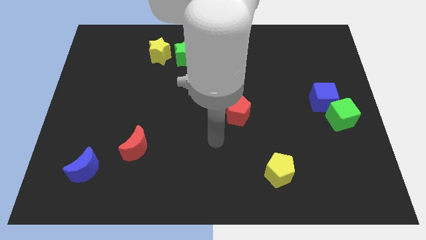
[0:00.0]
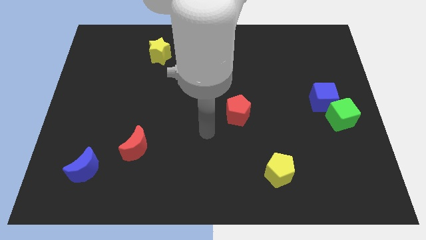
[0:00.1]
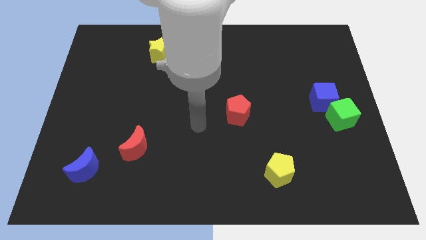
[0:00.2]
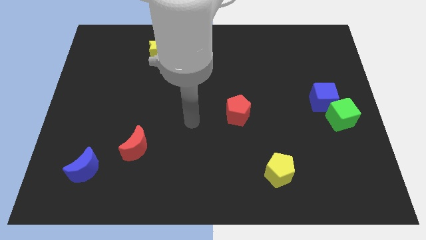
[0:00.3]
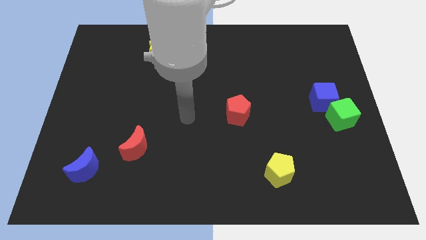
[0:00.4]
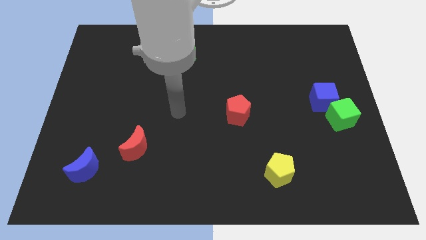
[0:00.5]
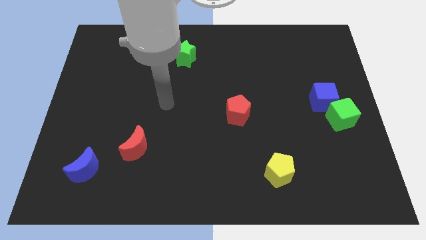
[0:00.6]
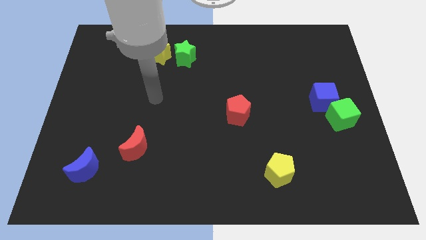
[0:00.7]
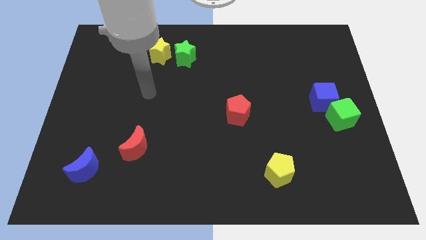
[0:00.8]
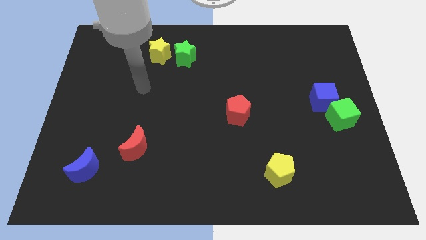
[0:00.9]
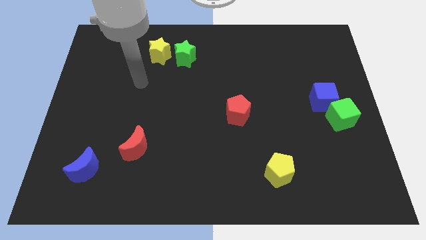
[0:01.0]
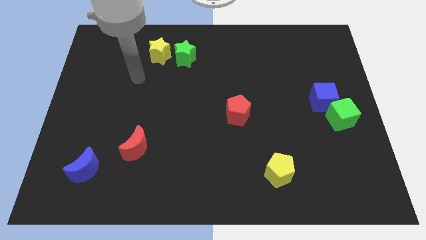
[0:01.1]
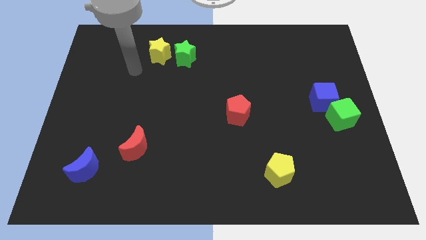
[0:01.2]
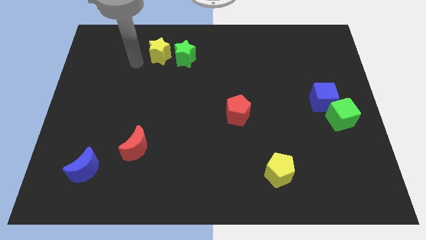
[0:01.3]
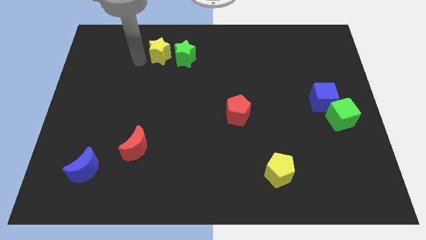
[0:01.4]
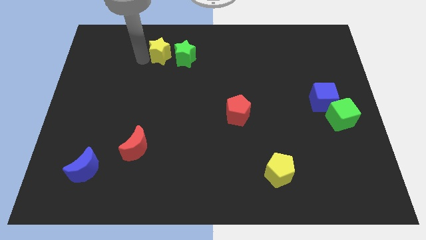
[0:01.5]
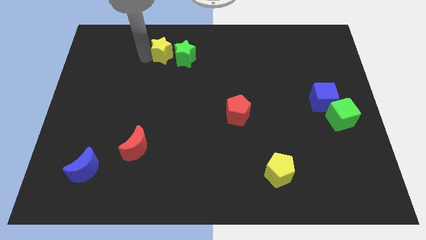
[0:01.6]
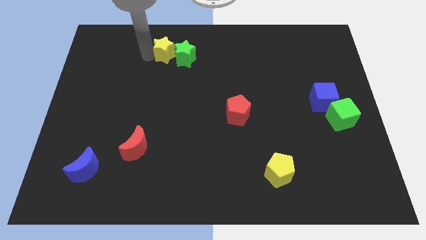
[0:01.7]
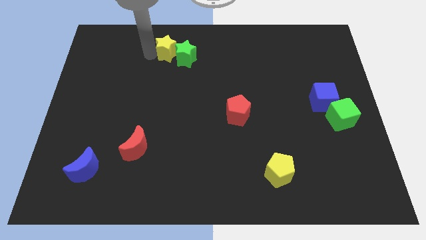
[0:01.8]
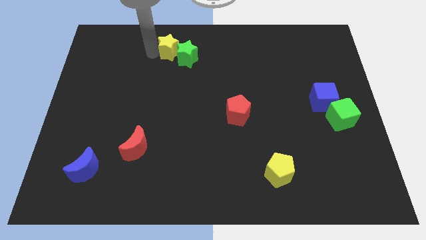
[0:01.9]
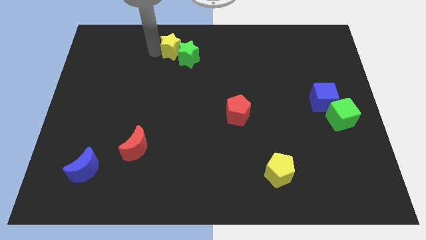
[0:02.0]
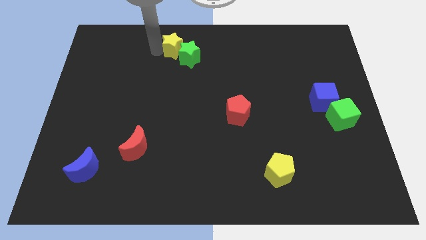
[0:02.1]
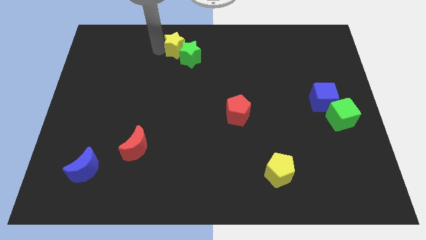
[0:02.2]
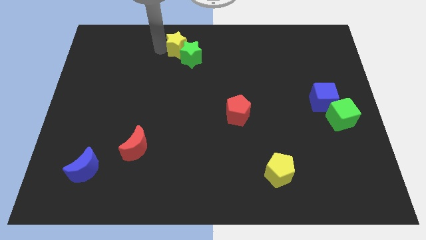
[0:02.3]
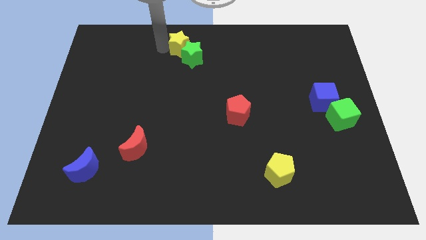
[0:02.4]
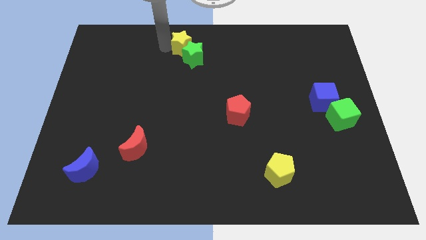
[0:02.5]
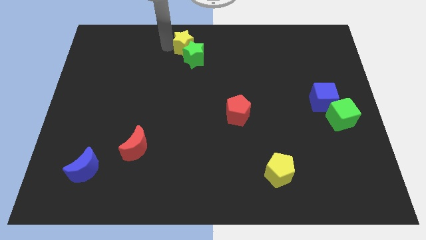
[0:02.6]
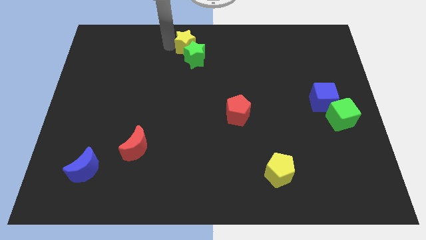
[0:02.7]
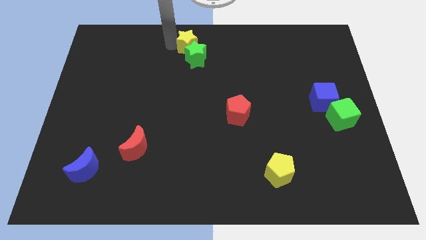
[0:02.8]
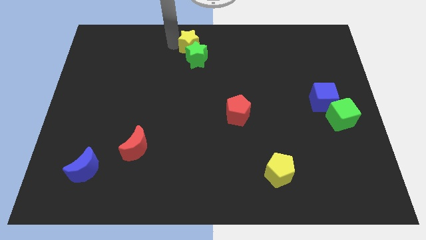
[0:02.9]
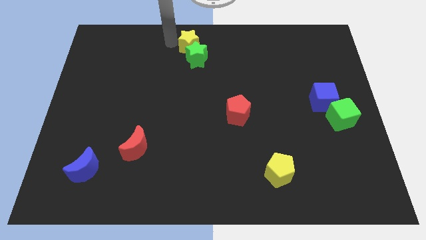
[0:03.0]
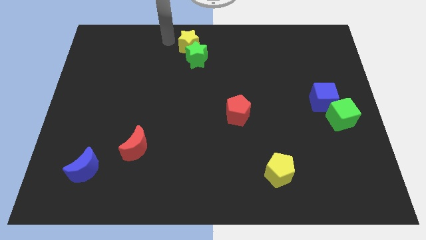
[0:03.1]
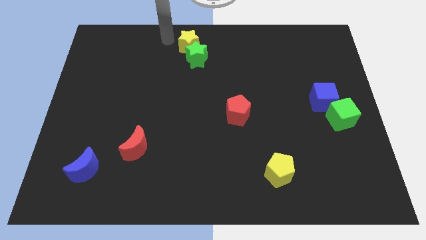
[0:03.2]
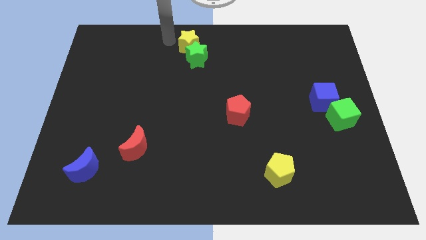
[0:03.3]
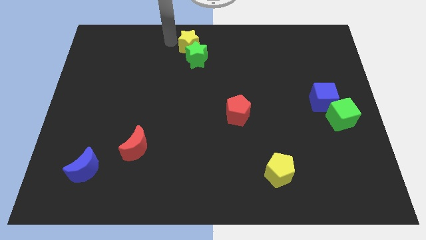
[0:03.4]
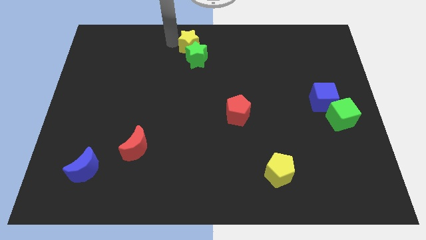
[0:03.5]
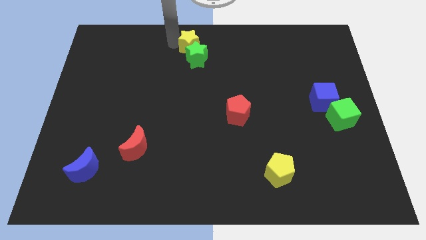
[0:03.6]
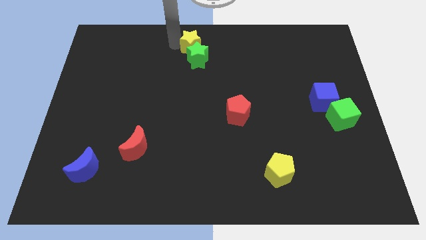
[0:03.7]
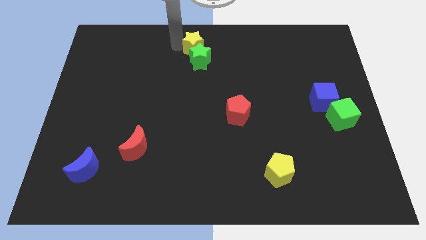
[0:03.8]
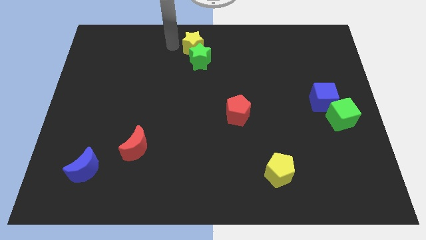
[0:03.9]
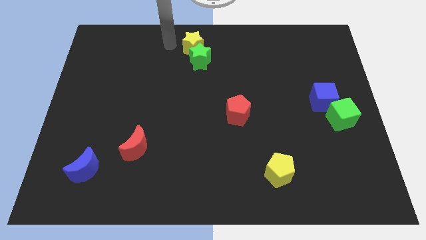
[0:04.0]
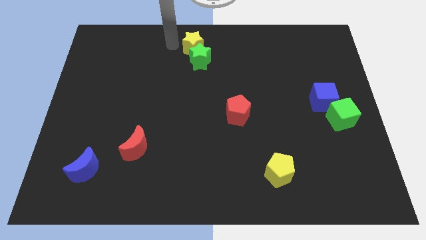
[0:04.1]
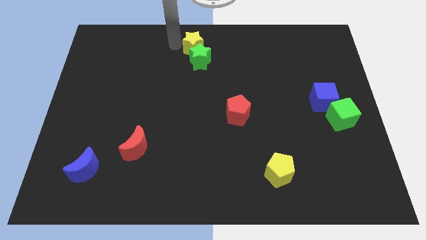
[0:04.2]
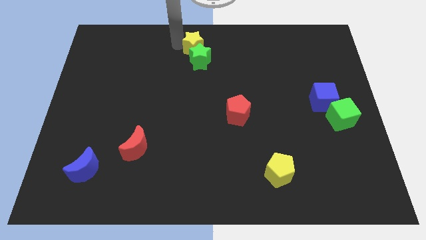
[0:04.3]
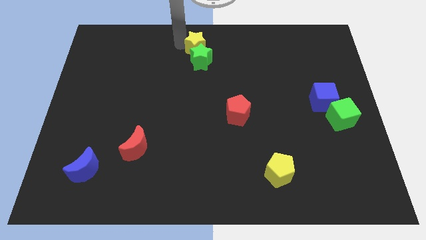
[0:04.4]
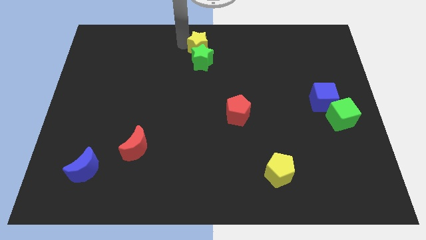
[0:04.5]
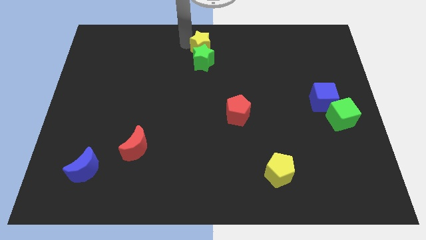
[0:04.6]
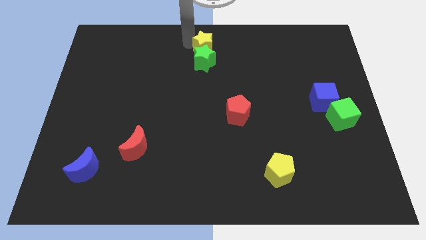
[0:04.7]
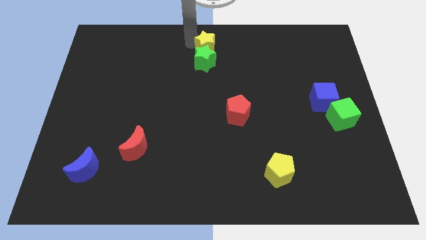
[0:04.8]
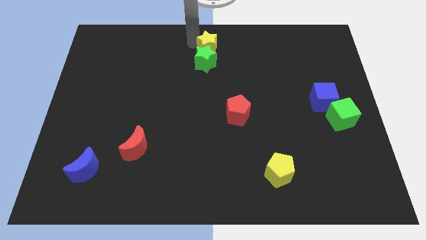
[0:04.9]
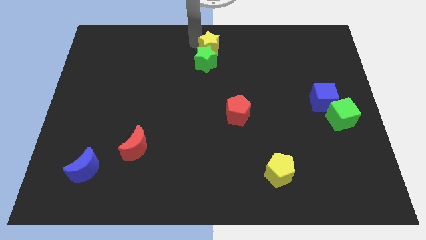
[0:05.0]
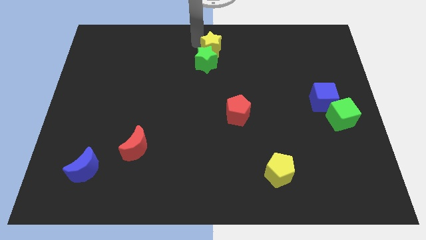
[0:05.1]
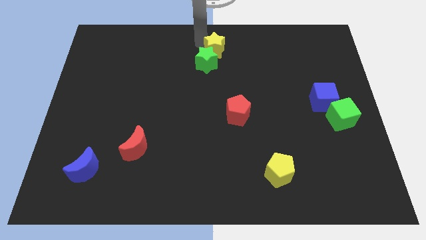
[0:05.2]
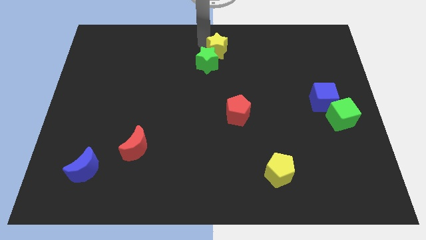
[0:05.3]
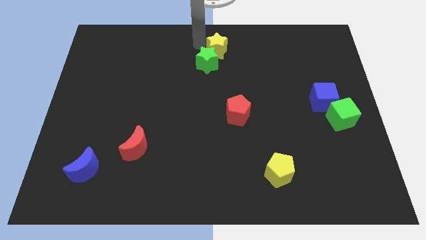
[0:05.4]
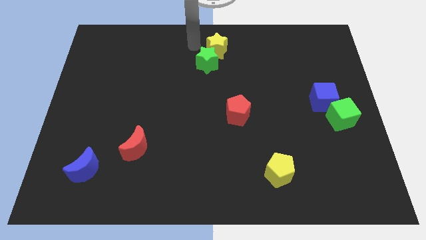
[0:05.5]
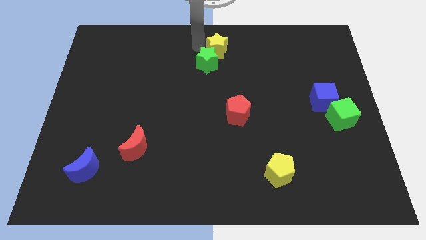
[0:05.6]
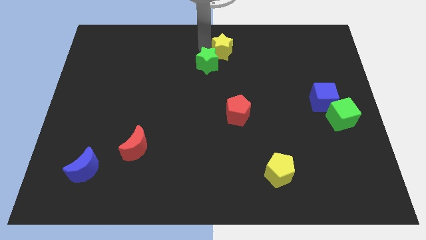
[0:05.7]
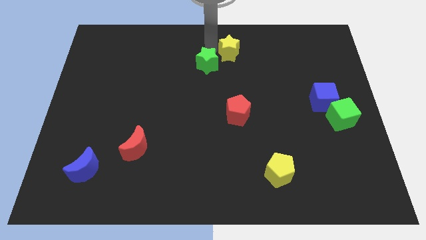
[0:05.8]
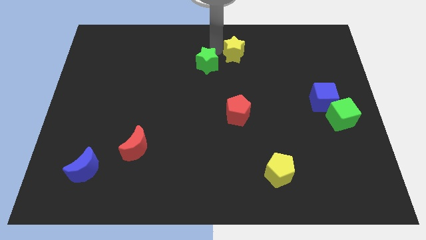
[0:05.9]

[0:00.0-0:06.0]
slide the yellow star right

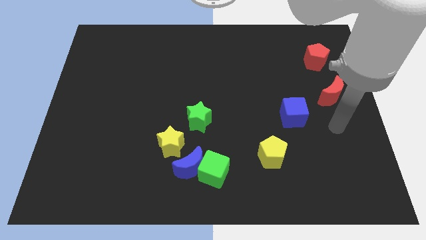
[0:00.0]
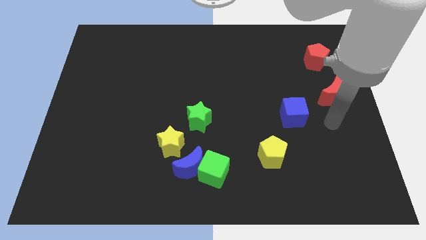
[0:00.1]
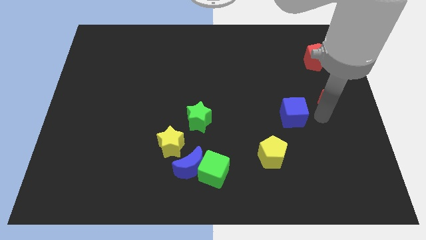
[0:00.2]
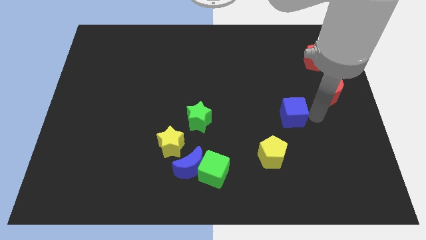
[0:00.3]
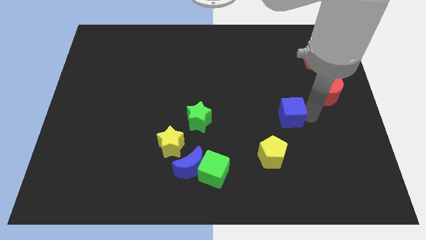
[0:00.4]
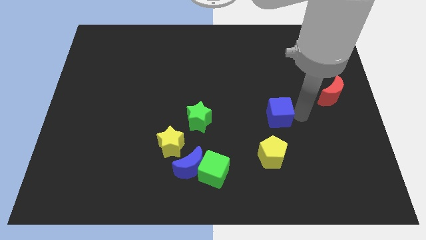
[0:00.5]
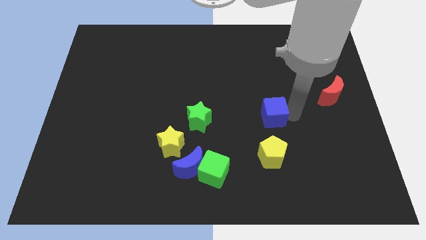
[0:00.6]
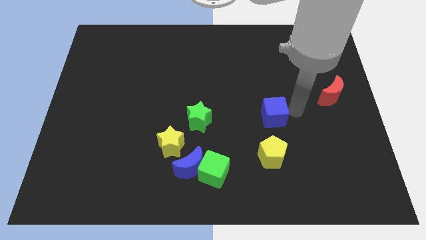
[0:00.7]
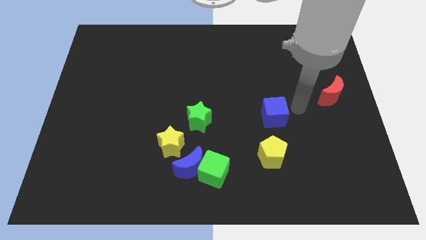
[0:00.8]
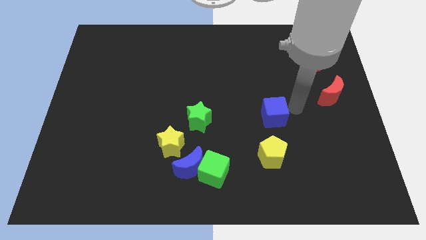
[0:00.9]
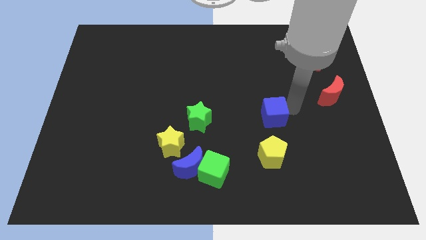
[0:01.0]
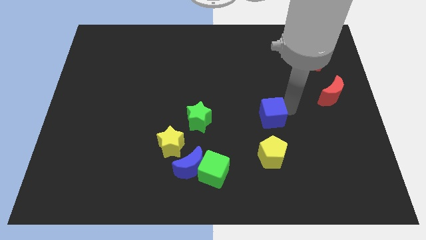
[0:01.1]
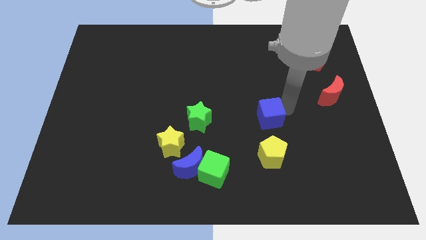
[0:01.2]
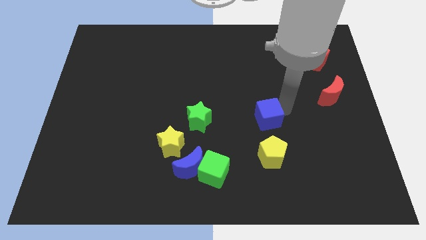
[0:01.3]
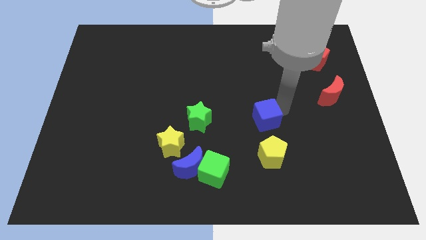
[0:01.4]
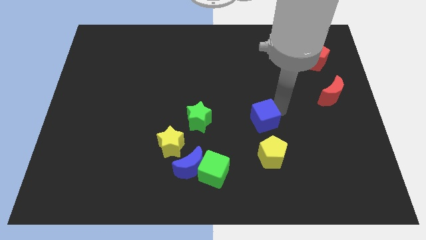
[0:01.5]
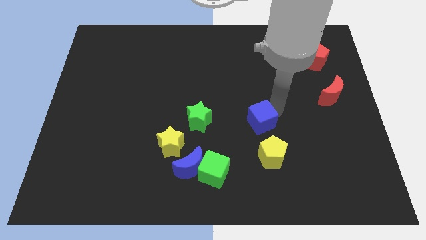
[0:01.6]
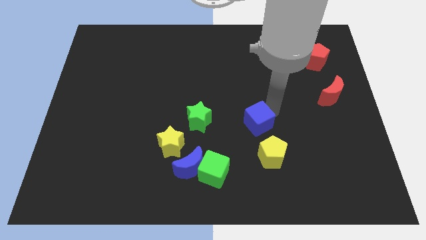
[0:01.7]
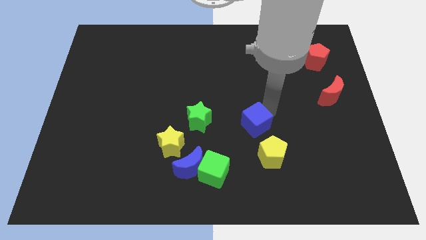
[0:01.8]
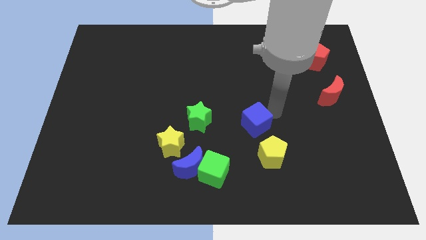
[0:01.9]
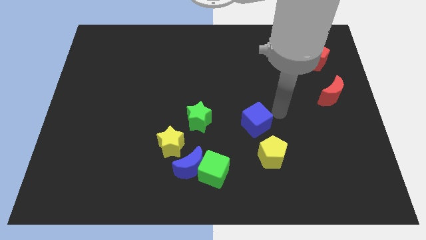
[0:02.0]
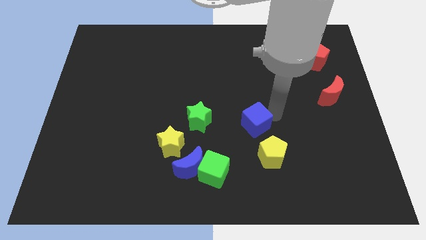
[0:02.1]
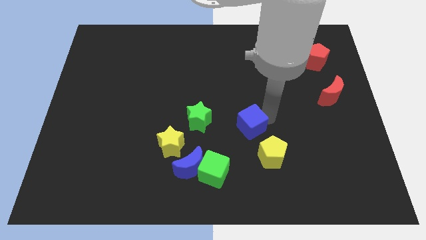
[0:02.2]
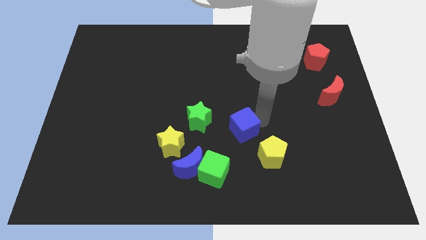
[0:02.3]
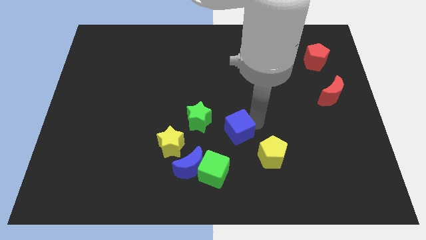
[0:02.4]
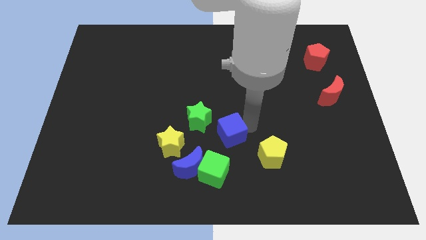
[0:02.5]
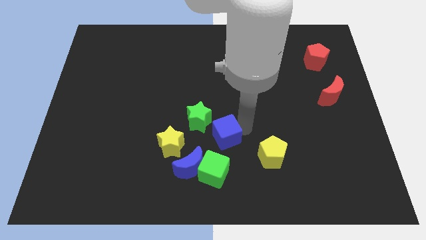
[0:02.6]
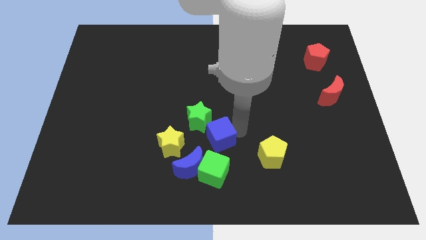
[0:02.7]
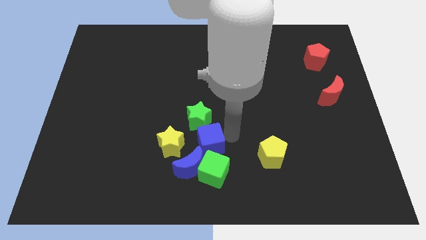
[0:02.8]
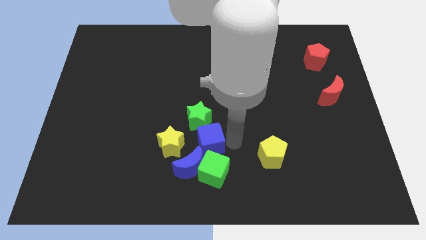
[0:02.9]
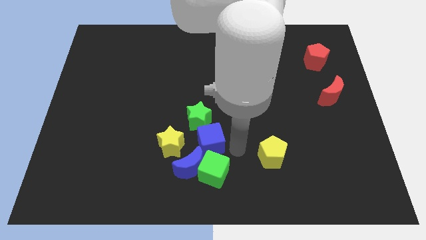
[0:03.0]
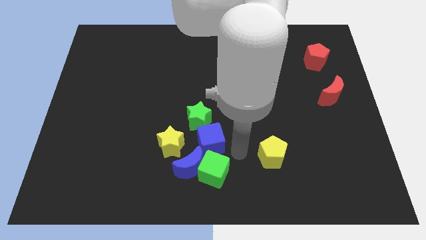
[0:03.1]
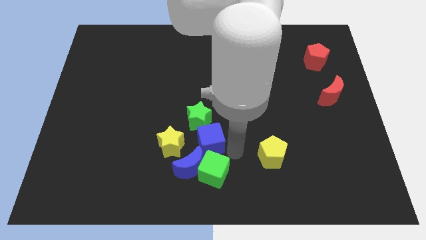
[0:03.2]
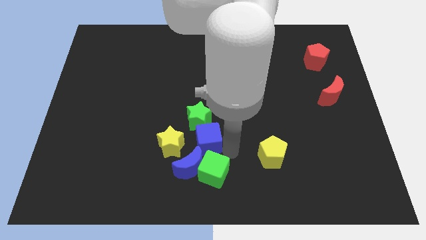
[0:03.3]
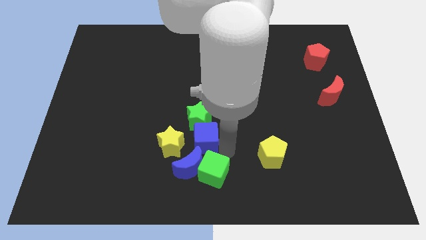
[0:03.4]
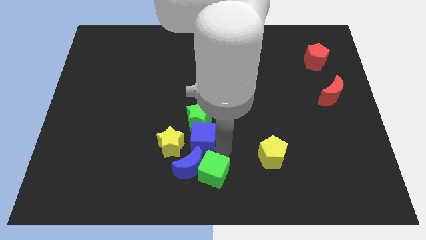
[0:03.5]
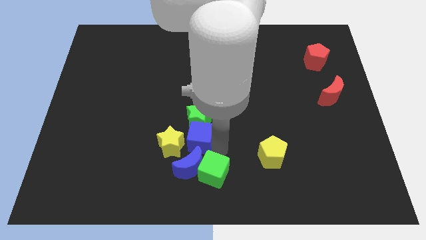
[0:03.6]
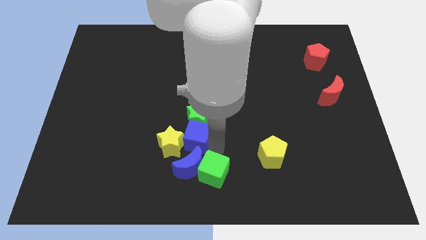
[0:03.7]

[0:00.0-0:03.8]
slide the blue cube left
